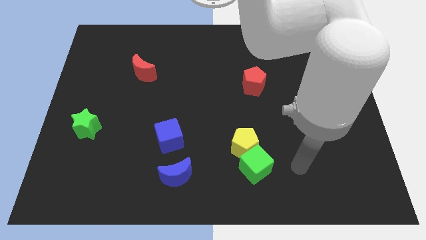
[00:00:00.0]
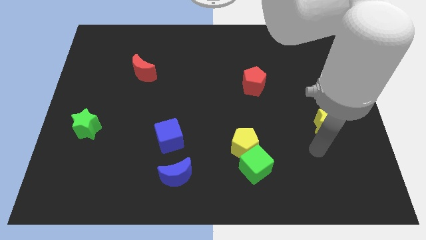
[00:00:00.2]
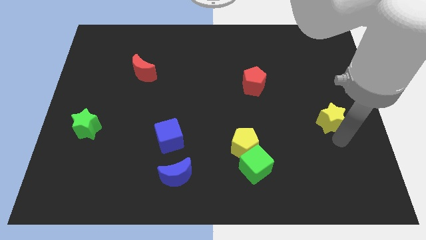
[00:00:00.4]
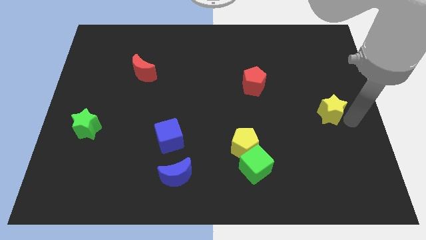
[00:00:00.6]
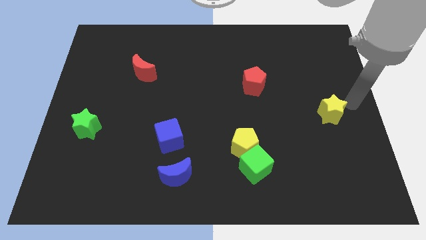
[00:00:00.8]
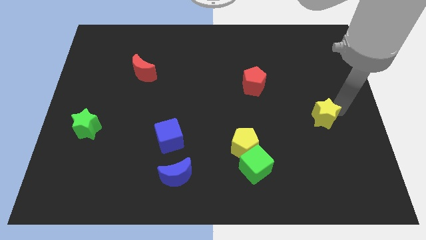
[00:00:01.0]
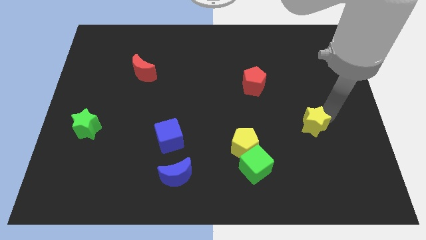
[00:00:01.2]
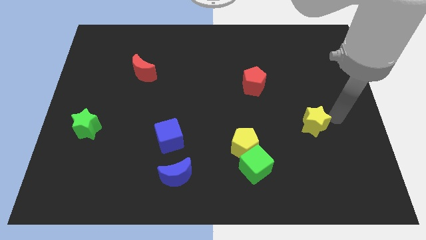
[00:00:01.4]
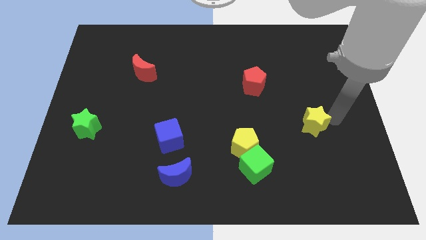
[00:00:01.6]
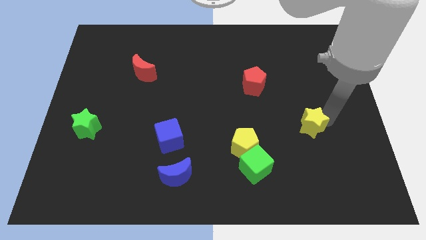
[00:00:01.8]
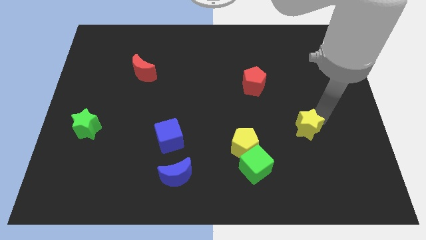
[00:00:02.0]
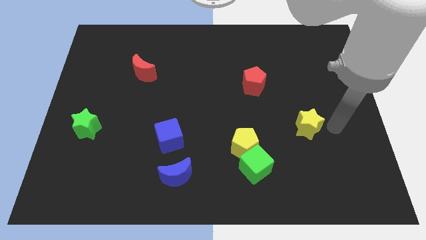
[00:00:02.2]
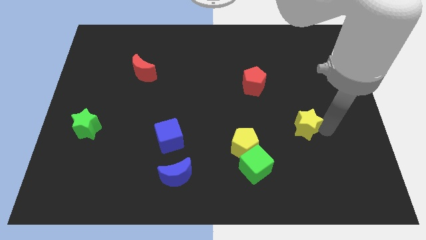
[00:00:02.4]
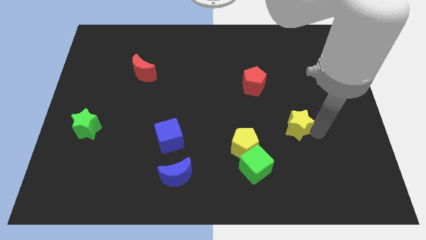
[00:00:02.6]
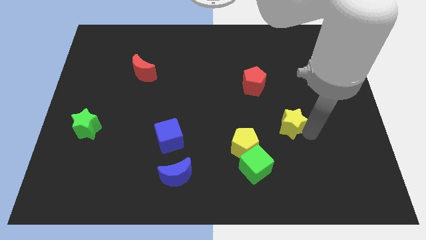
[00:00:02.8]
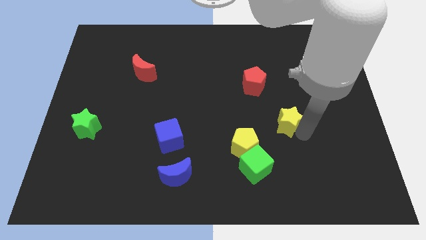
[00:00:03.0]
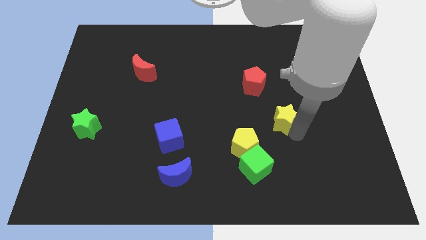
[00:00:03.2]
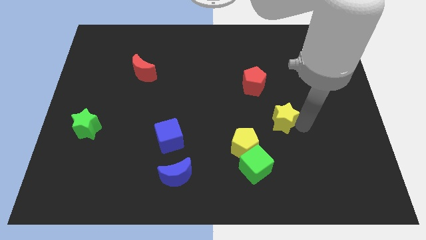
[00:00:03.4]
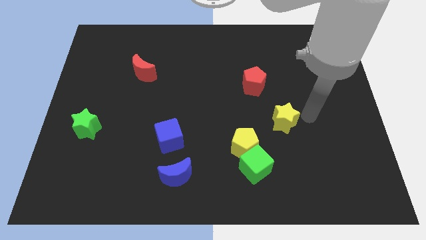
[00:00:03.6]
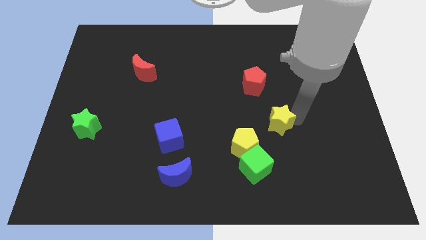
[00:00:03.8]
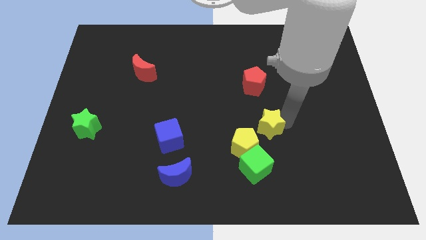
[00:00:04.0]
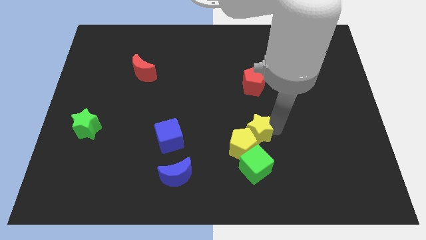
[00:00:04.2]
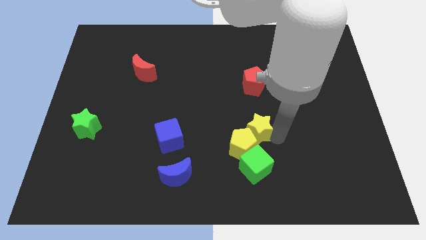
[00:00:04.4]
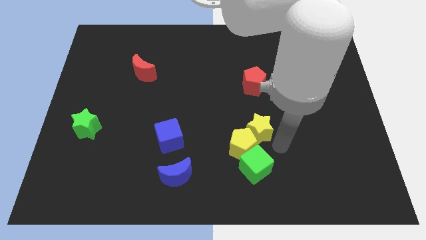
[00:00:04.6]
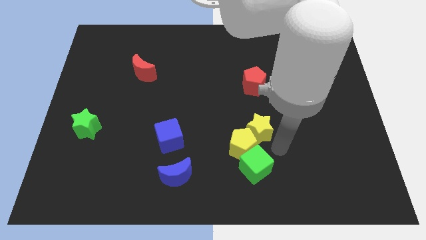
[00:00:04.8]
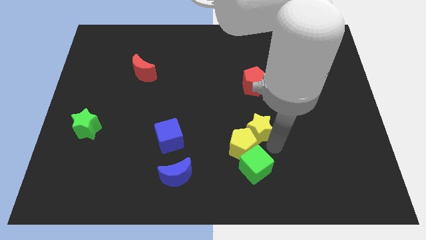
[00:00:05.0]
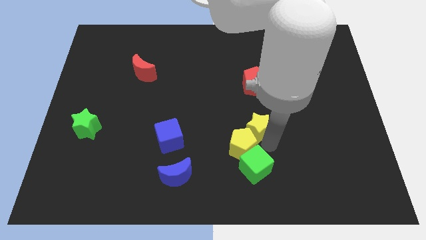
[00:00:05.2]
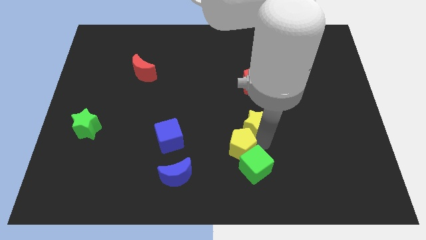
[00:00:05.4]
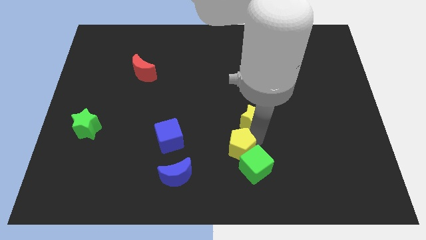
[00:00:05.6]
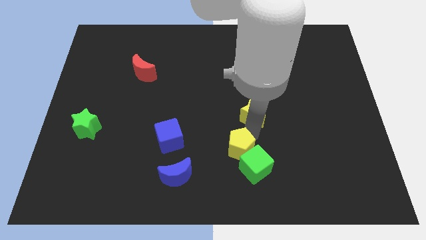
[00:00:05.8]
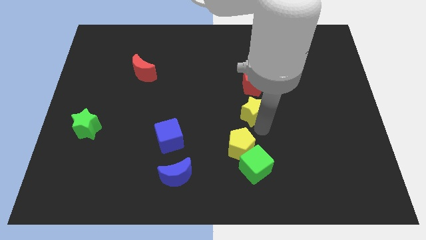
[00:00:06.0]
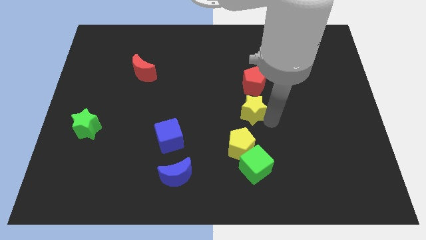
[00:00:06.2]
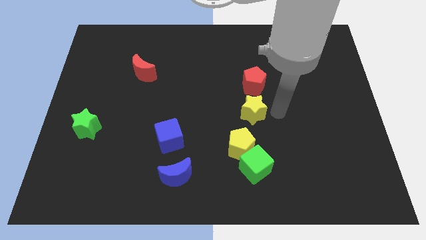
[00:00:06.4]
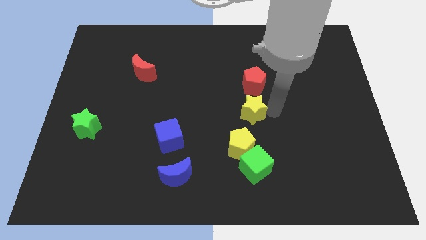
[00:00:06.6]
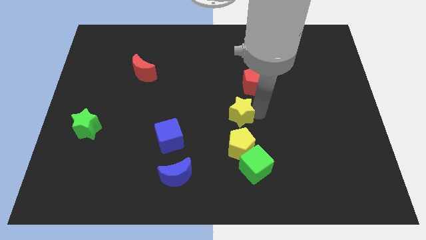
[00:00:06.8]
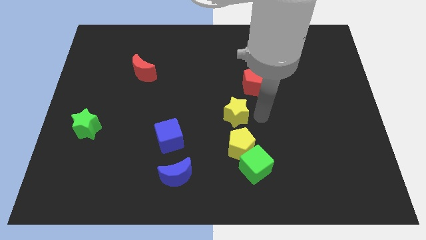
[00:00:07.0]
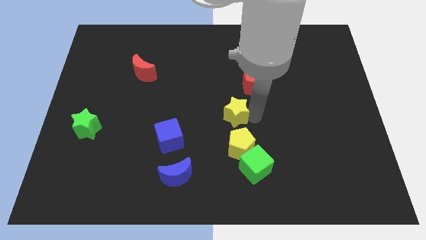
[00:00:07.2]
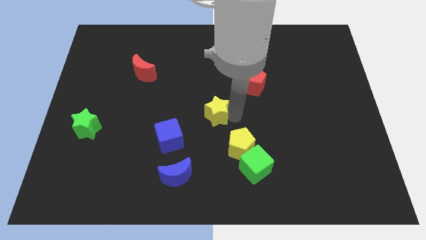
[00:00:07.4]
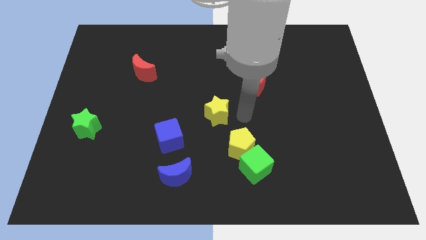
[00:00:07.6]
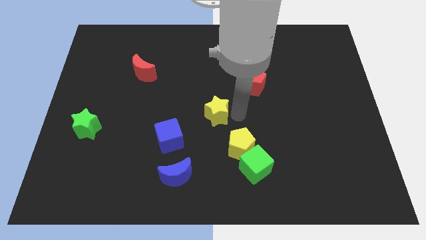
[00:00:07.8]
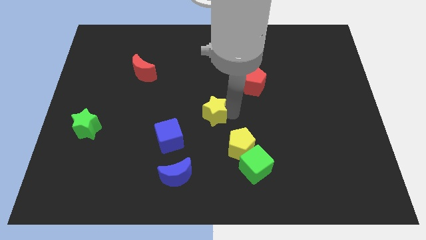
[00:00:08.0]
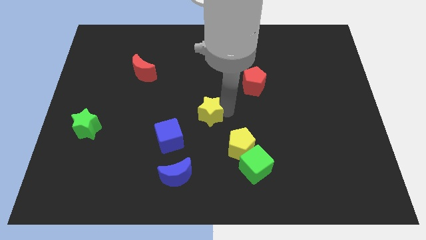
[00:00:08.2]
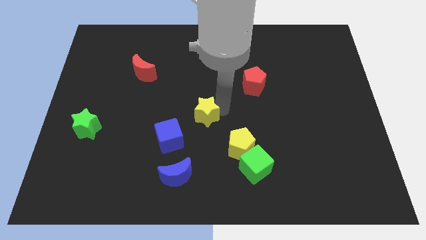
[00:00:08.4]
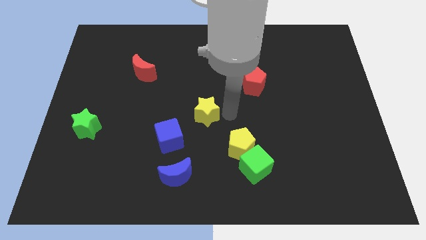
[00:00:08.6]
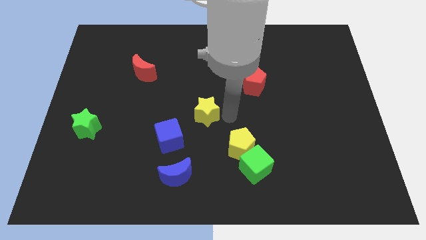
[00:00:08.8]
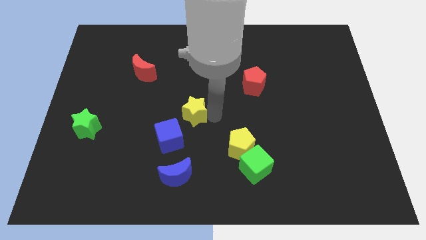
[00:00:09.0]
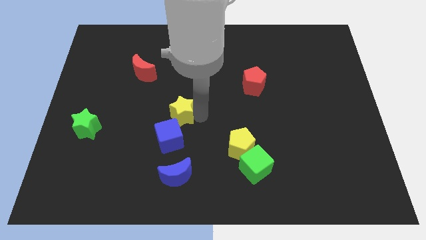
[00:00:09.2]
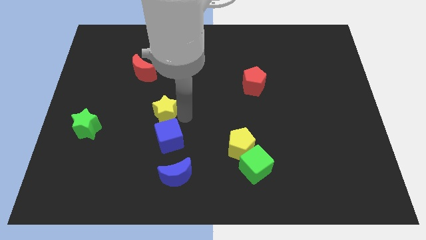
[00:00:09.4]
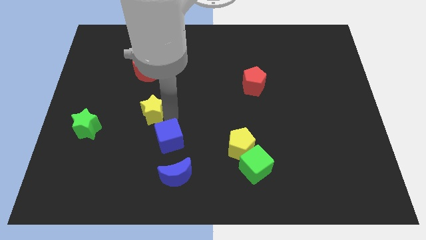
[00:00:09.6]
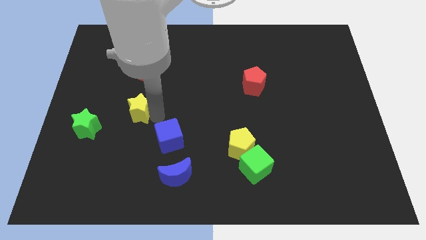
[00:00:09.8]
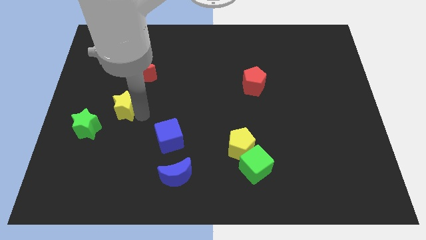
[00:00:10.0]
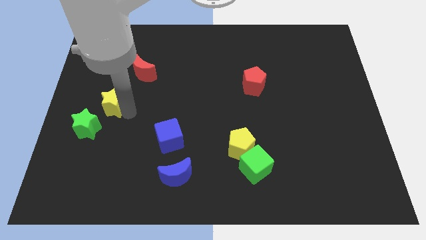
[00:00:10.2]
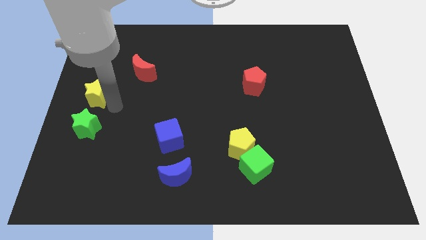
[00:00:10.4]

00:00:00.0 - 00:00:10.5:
put the yellow star to the left side

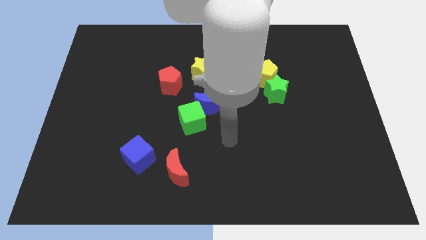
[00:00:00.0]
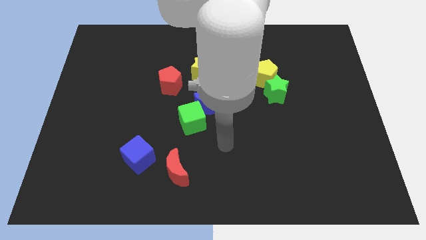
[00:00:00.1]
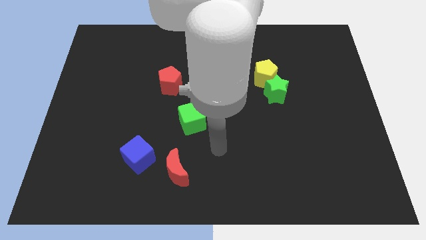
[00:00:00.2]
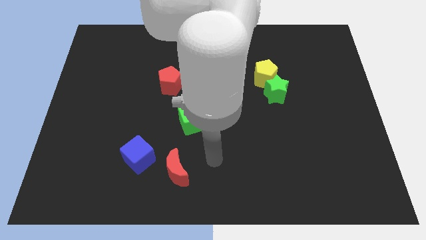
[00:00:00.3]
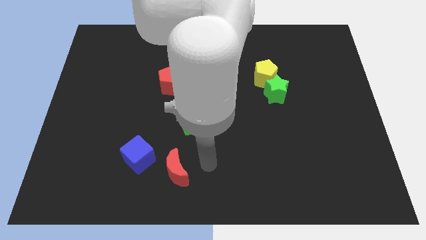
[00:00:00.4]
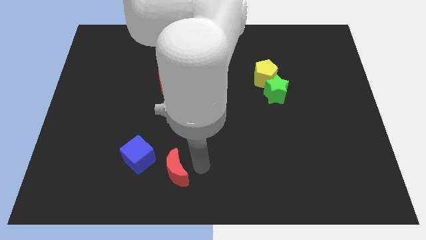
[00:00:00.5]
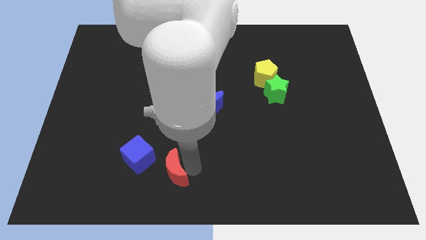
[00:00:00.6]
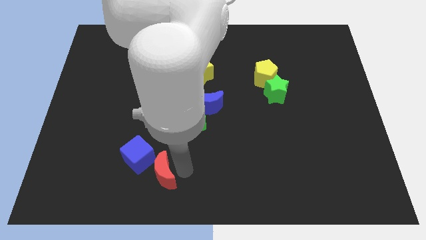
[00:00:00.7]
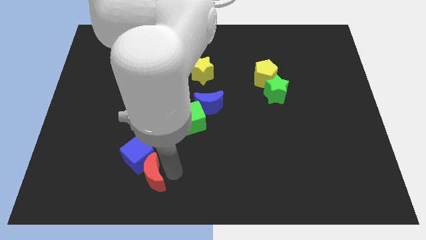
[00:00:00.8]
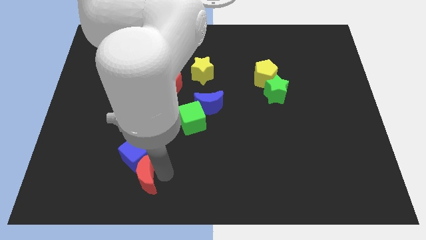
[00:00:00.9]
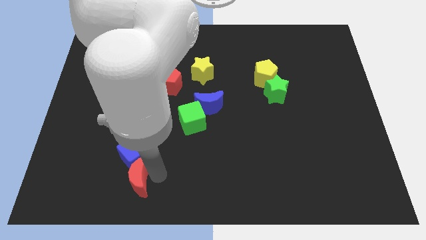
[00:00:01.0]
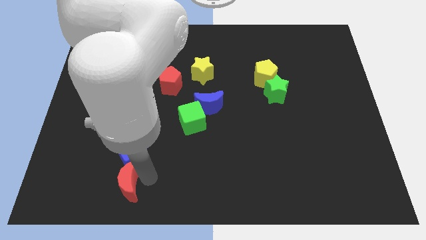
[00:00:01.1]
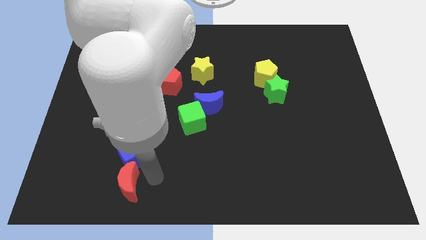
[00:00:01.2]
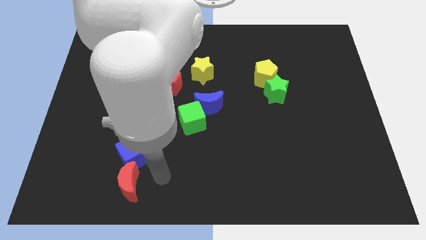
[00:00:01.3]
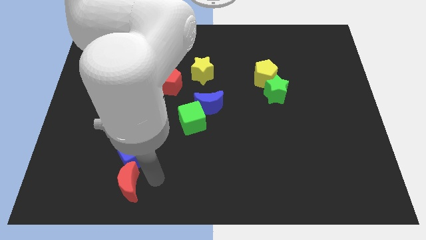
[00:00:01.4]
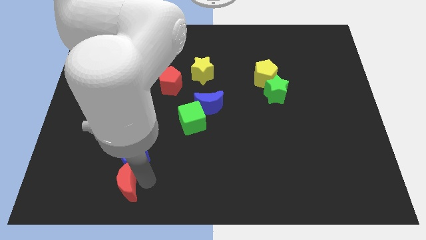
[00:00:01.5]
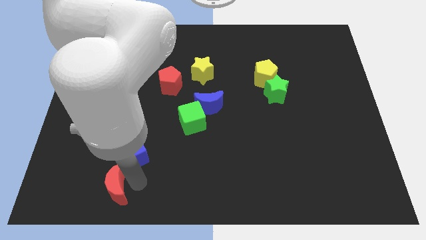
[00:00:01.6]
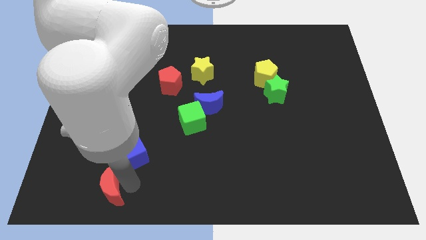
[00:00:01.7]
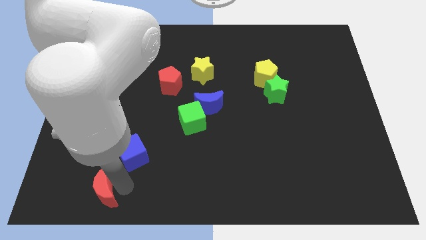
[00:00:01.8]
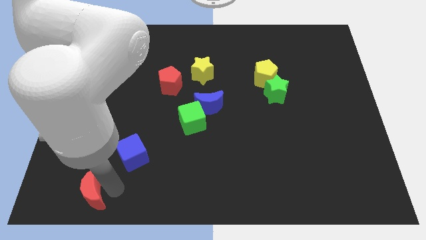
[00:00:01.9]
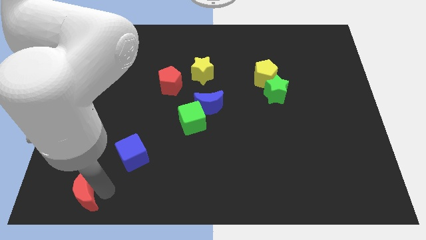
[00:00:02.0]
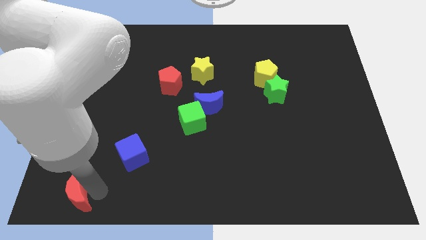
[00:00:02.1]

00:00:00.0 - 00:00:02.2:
put the red moon to the bottom left
